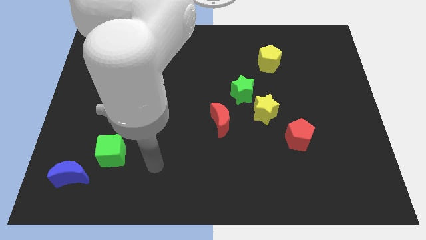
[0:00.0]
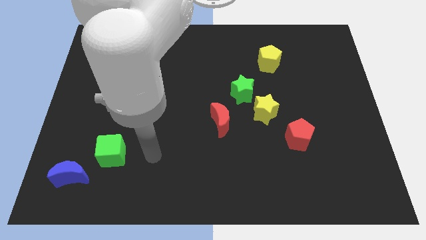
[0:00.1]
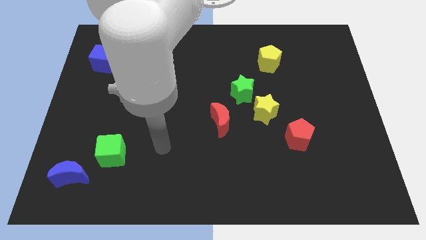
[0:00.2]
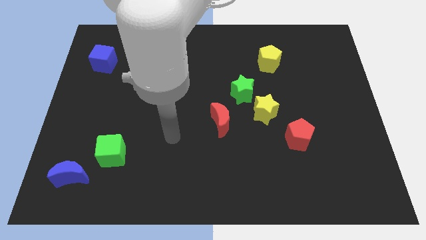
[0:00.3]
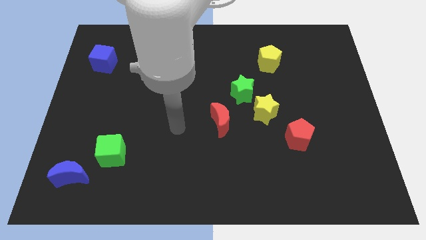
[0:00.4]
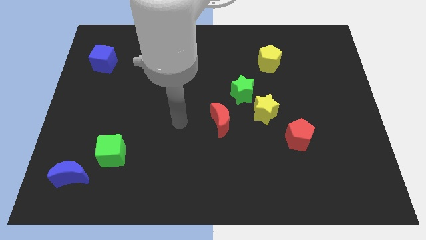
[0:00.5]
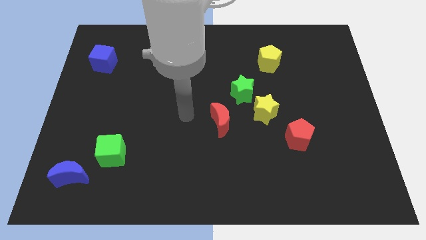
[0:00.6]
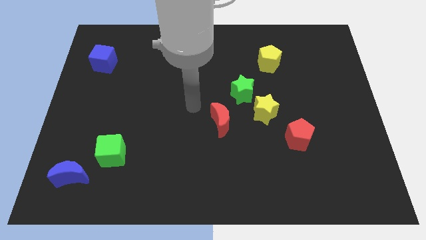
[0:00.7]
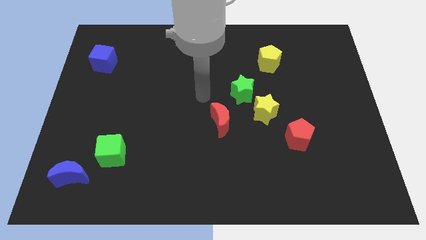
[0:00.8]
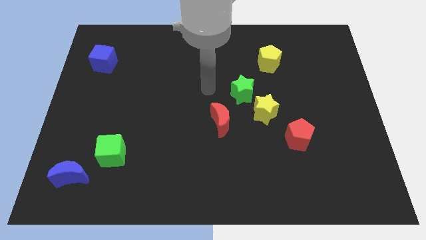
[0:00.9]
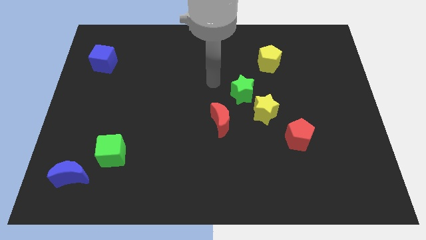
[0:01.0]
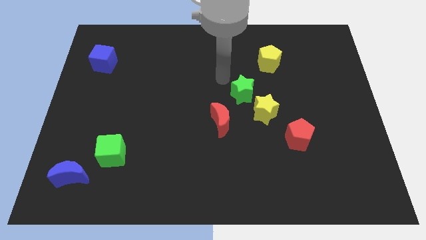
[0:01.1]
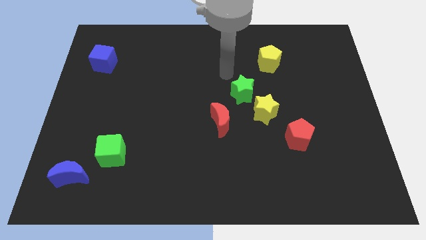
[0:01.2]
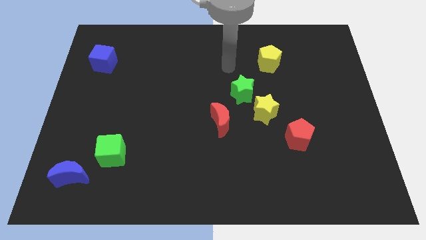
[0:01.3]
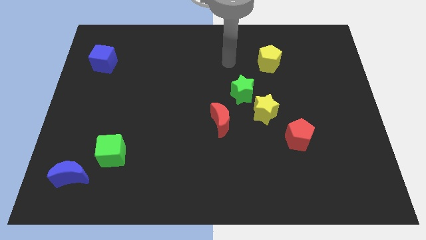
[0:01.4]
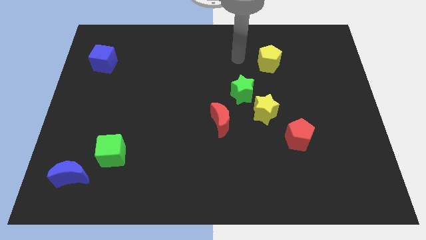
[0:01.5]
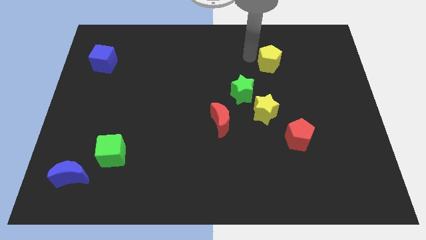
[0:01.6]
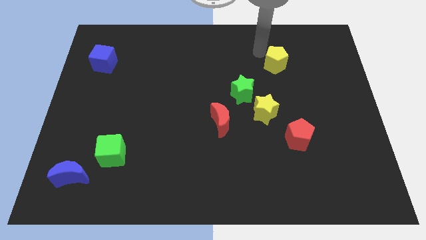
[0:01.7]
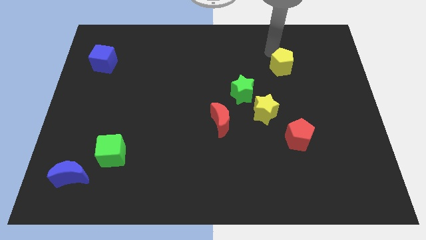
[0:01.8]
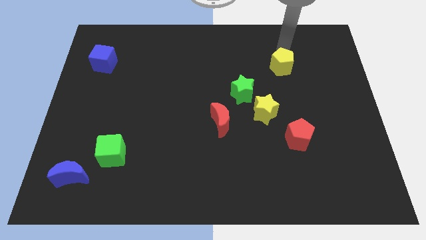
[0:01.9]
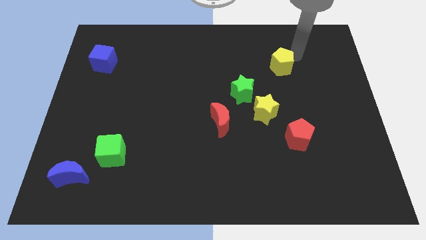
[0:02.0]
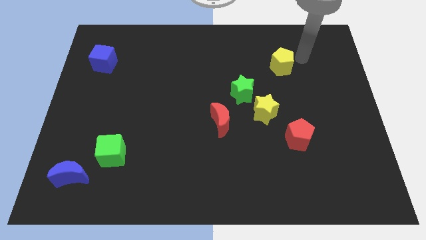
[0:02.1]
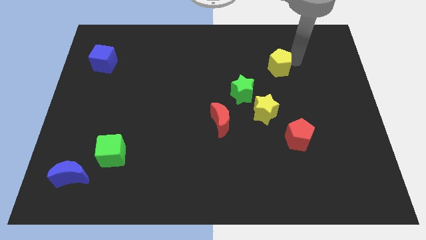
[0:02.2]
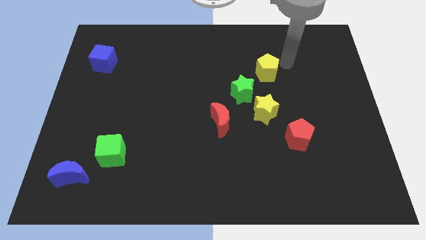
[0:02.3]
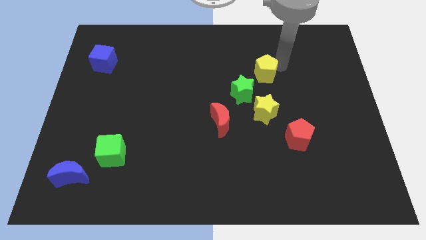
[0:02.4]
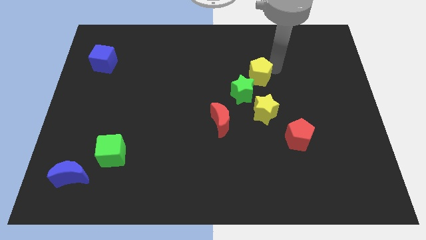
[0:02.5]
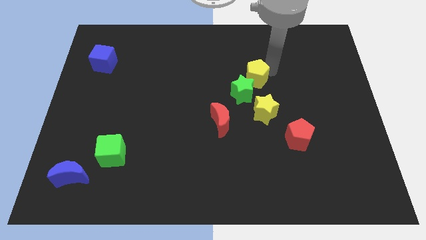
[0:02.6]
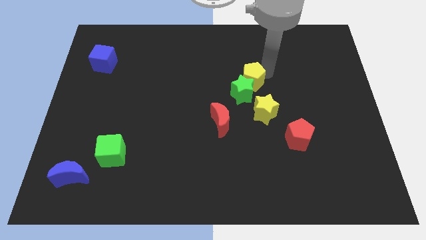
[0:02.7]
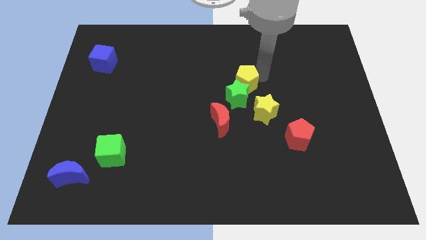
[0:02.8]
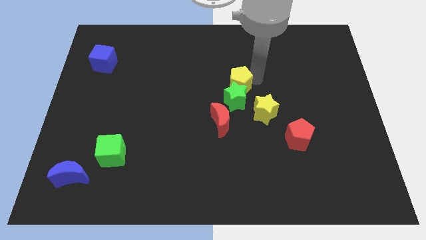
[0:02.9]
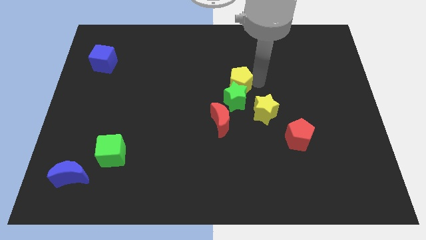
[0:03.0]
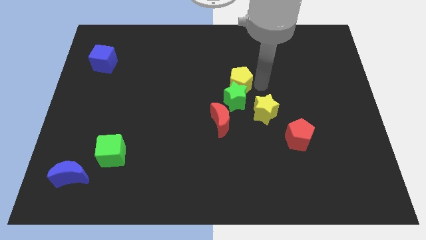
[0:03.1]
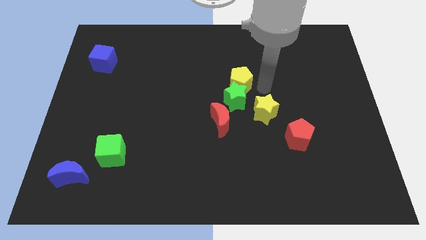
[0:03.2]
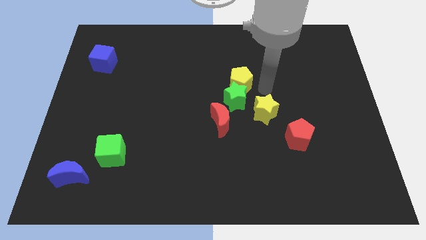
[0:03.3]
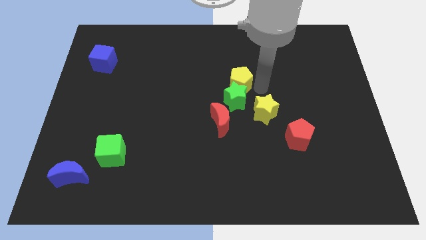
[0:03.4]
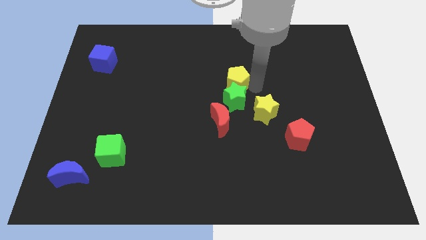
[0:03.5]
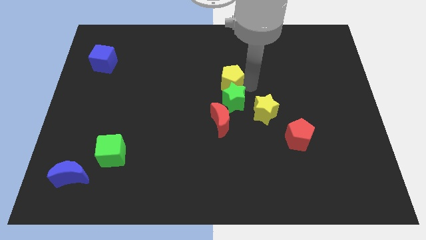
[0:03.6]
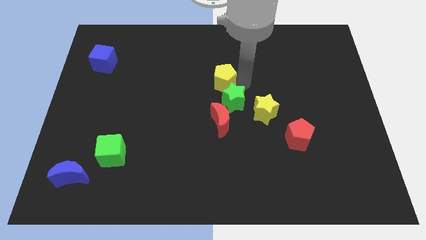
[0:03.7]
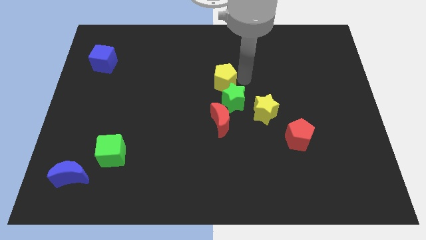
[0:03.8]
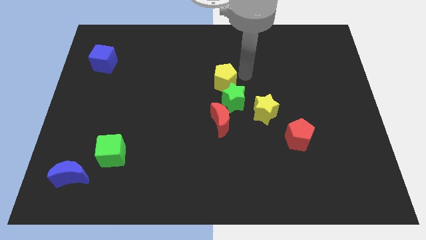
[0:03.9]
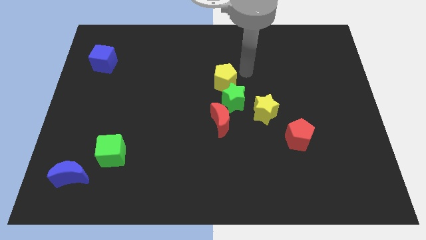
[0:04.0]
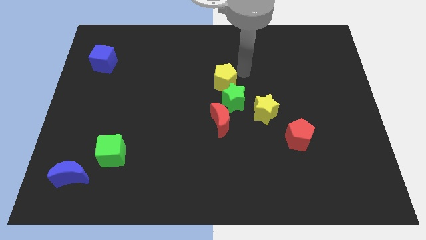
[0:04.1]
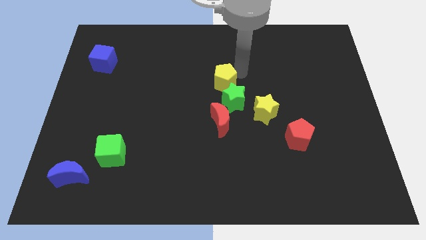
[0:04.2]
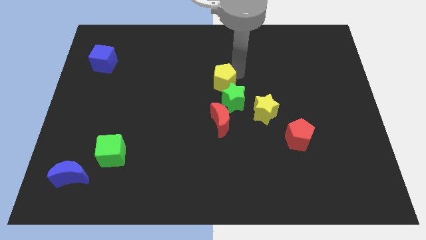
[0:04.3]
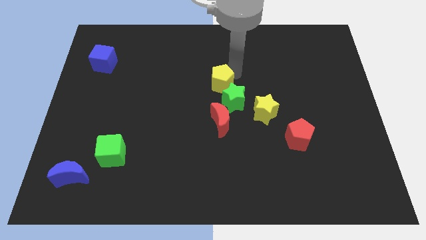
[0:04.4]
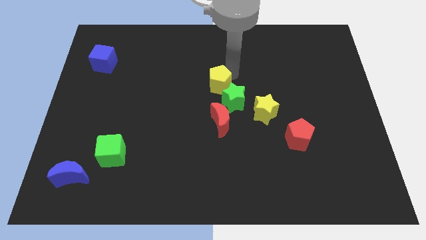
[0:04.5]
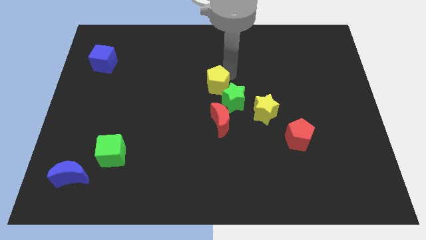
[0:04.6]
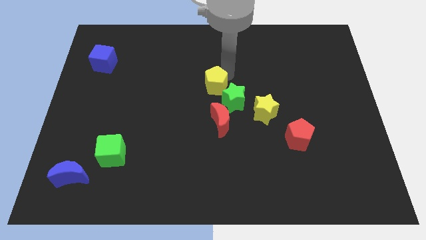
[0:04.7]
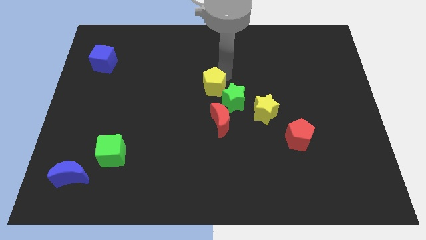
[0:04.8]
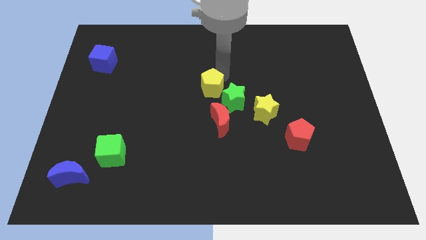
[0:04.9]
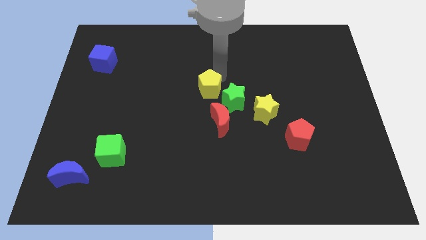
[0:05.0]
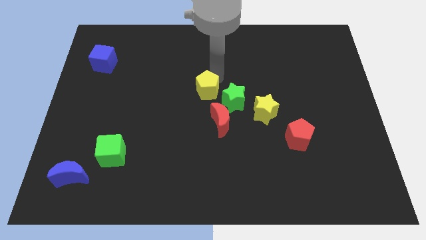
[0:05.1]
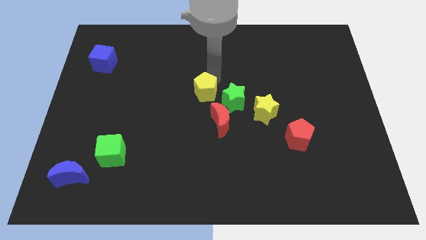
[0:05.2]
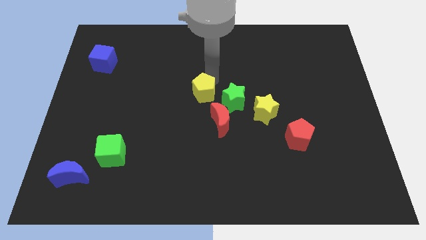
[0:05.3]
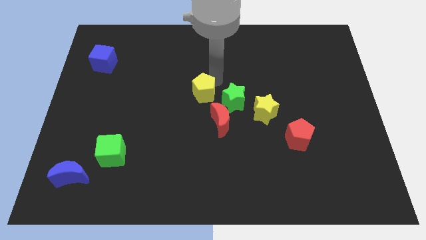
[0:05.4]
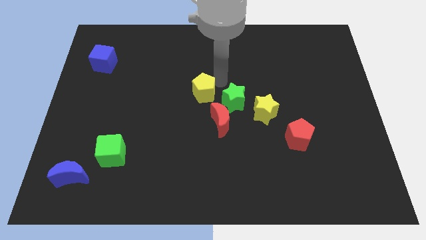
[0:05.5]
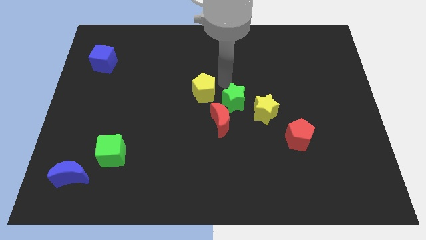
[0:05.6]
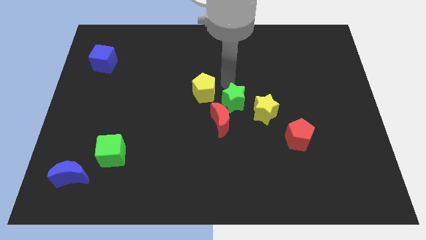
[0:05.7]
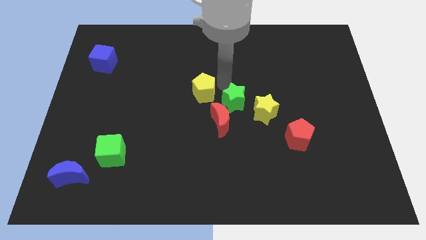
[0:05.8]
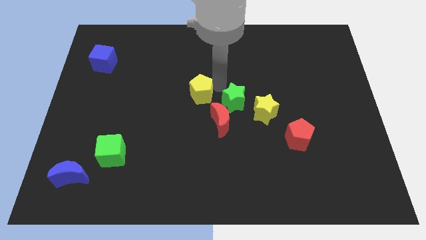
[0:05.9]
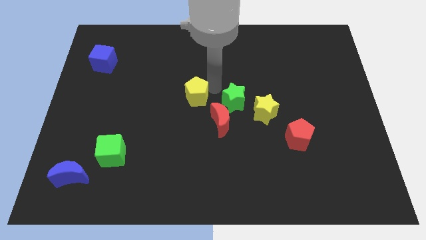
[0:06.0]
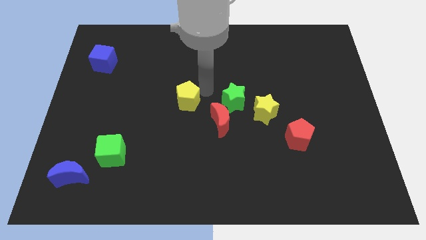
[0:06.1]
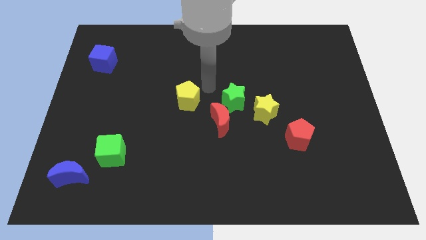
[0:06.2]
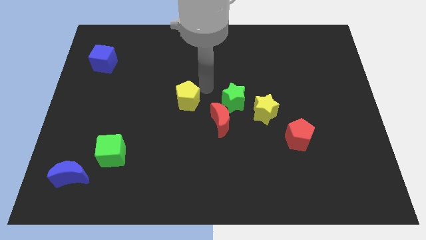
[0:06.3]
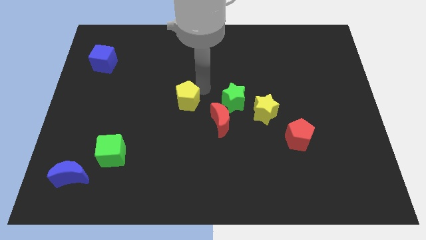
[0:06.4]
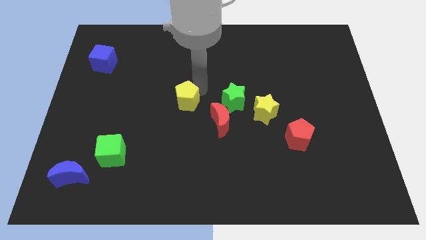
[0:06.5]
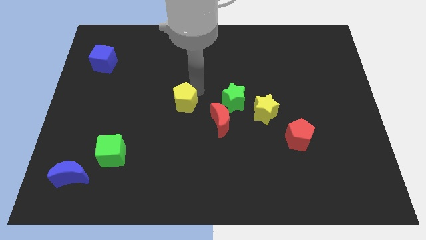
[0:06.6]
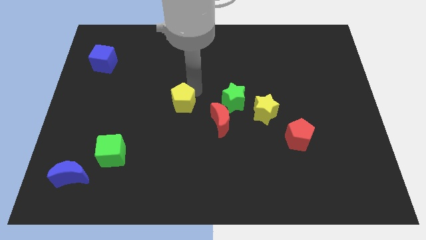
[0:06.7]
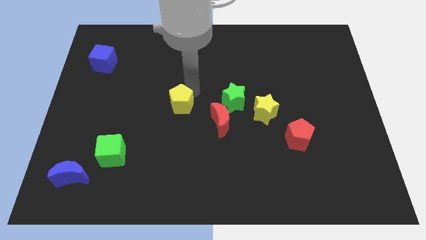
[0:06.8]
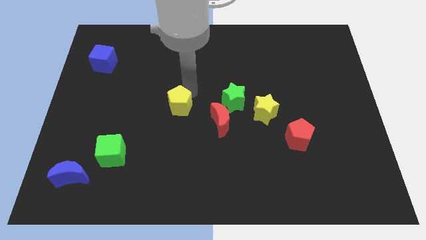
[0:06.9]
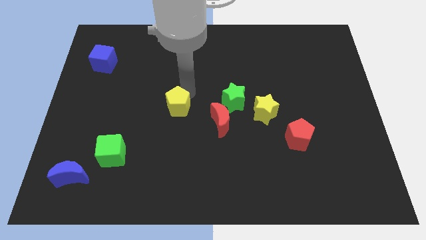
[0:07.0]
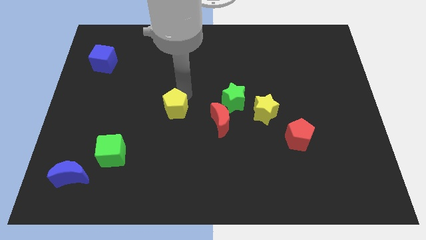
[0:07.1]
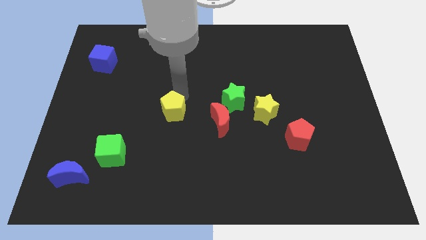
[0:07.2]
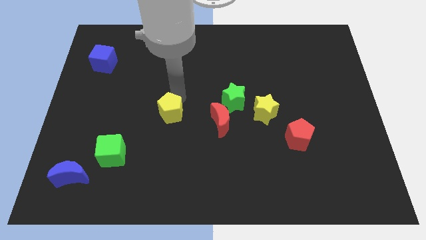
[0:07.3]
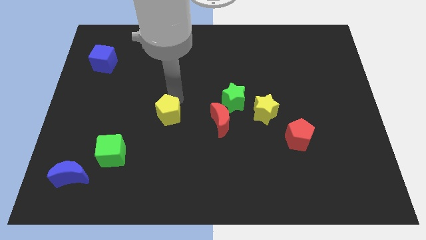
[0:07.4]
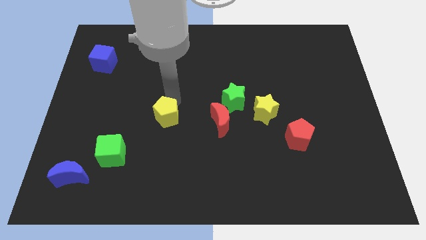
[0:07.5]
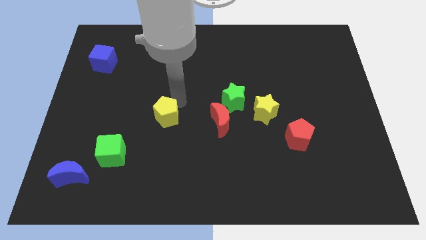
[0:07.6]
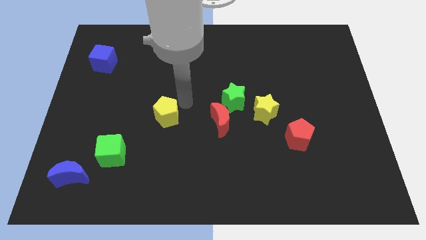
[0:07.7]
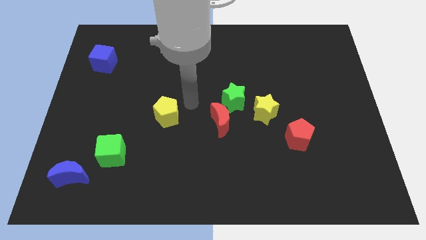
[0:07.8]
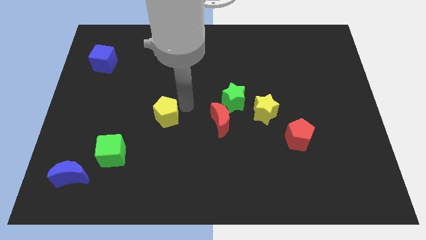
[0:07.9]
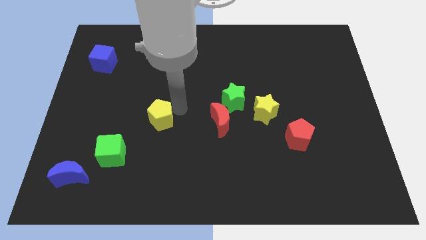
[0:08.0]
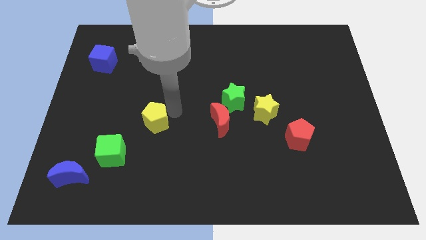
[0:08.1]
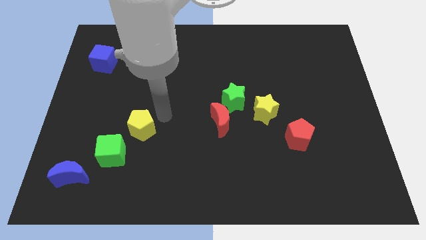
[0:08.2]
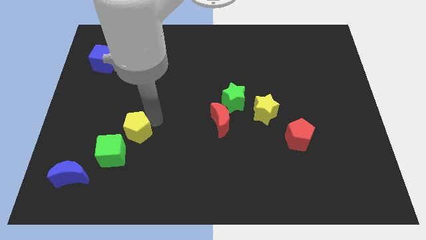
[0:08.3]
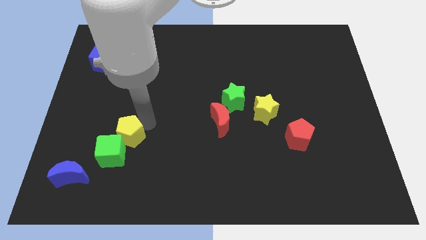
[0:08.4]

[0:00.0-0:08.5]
put the yellow pentagon close to the green cube
